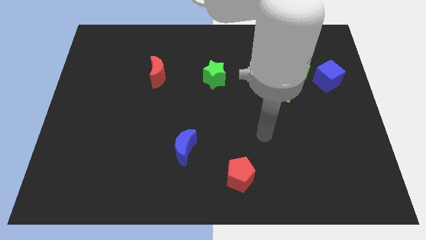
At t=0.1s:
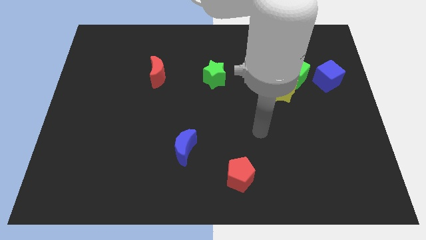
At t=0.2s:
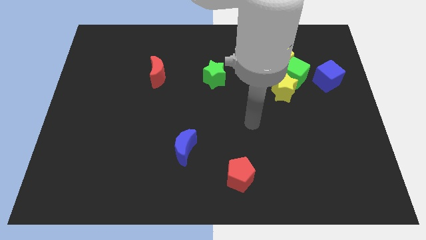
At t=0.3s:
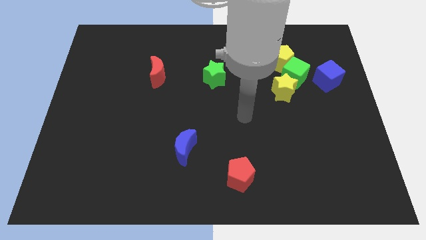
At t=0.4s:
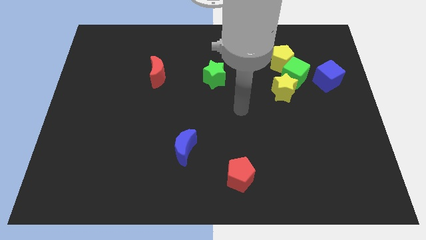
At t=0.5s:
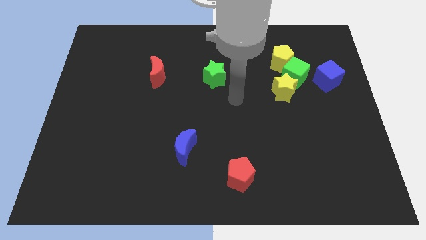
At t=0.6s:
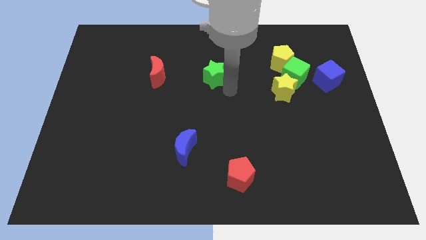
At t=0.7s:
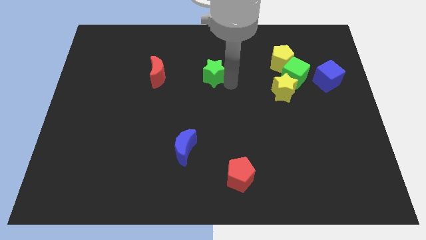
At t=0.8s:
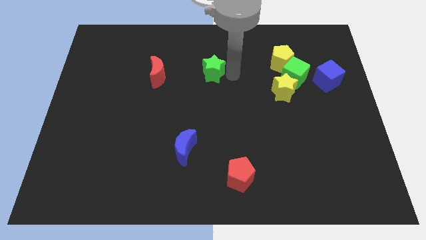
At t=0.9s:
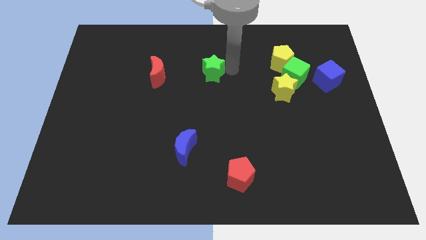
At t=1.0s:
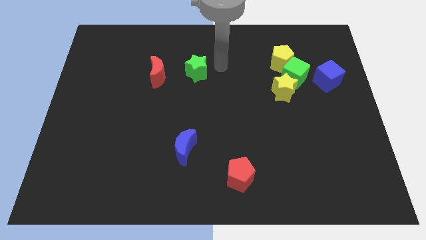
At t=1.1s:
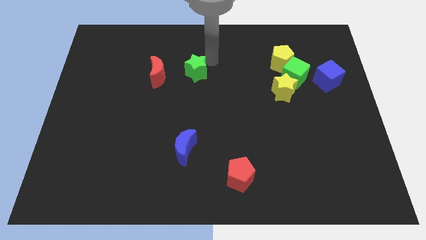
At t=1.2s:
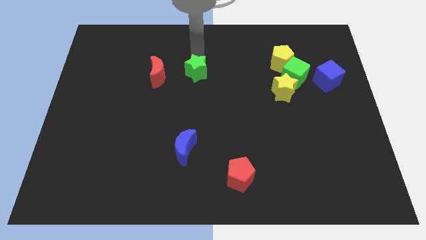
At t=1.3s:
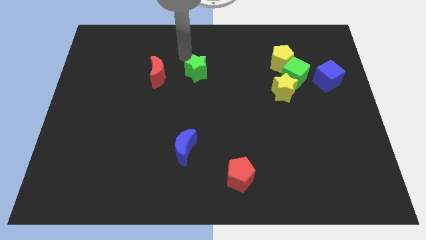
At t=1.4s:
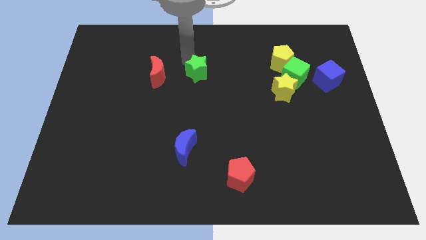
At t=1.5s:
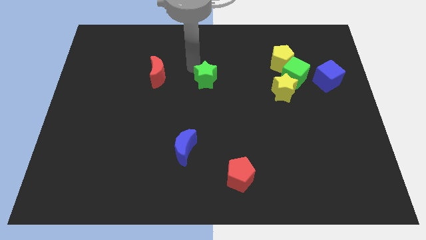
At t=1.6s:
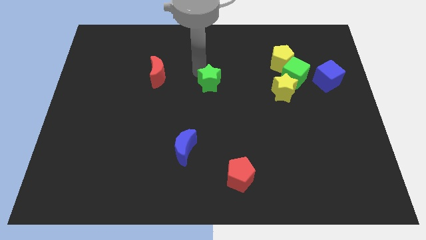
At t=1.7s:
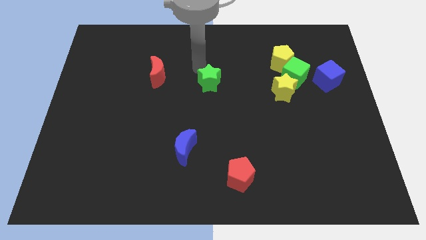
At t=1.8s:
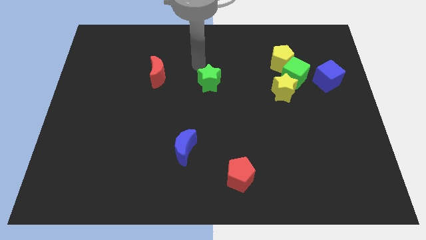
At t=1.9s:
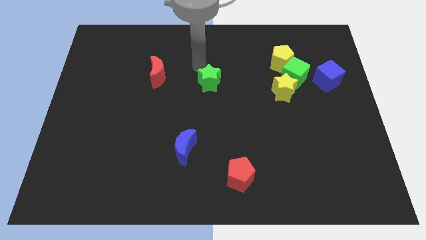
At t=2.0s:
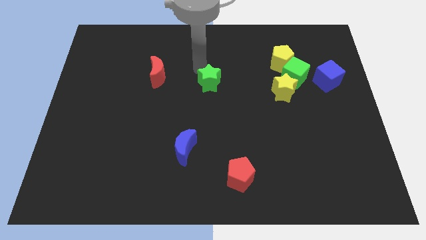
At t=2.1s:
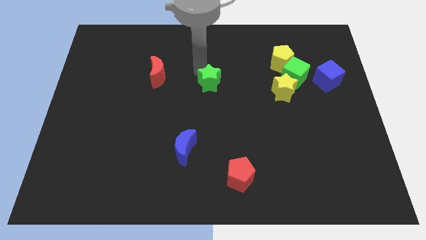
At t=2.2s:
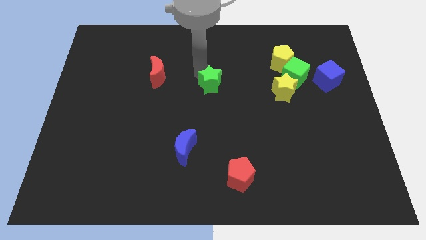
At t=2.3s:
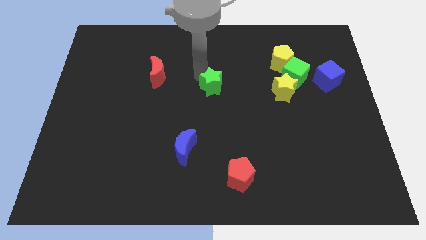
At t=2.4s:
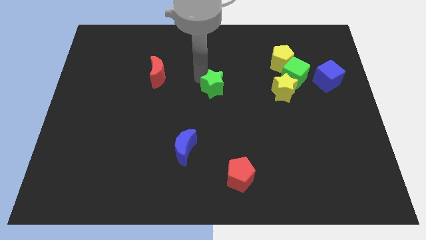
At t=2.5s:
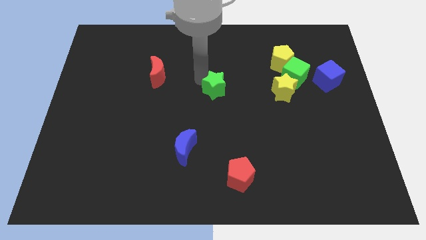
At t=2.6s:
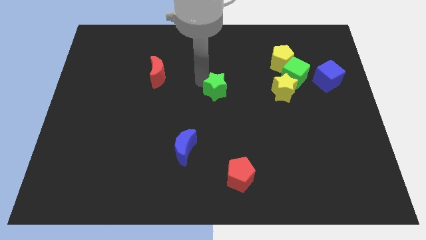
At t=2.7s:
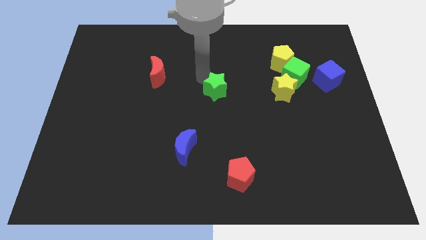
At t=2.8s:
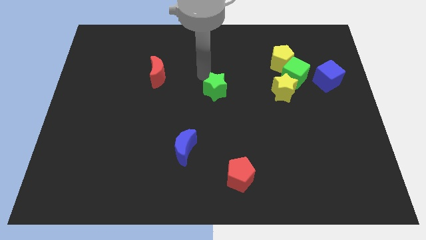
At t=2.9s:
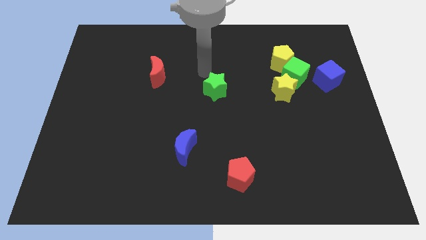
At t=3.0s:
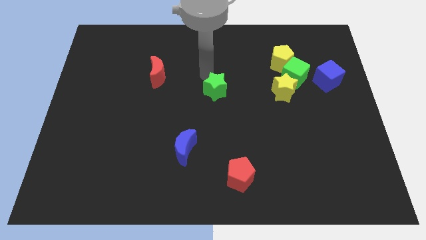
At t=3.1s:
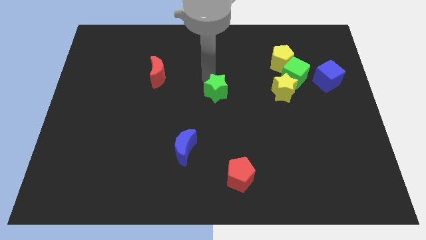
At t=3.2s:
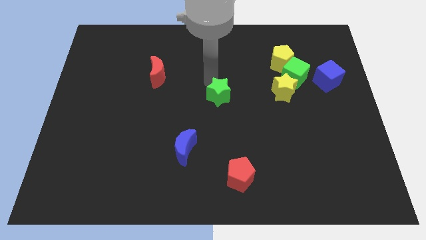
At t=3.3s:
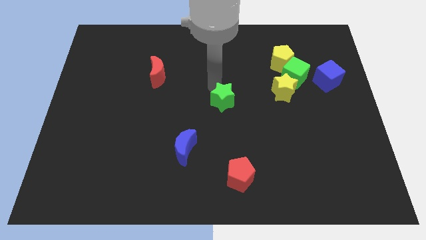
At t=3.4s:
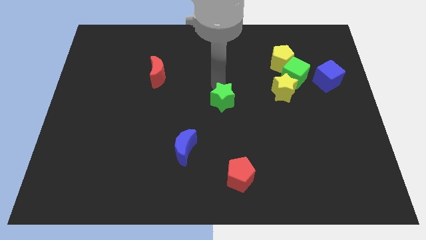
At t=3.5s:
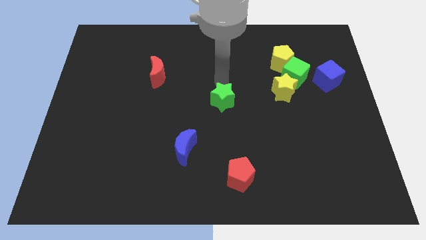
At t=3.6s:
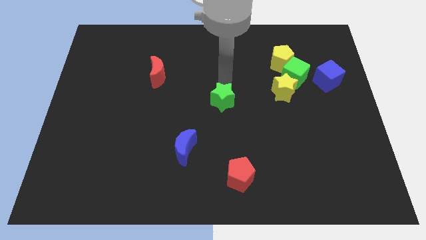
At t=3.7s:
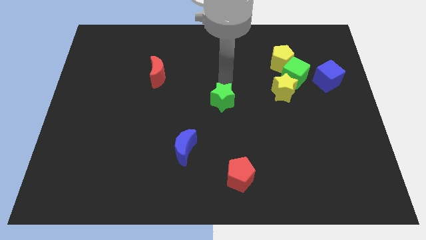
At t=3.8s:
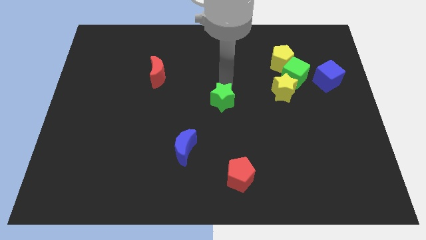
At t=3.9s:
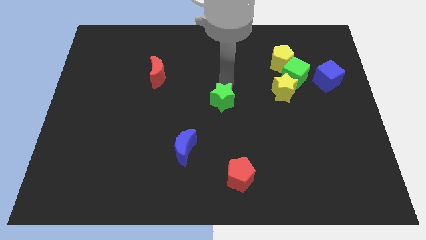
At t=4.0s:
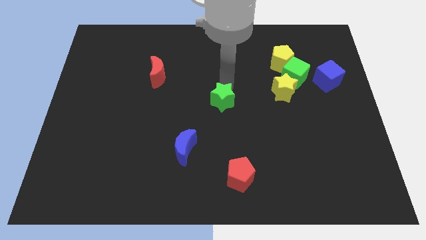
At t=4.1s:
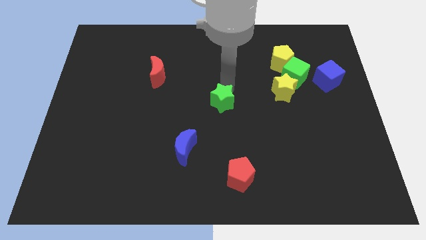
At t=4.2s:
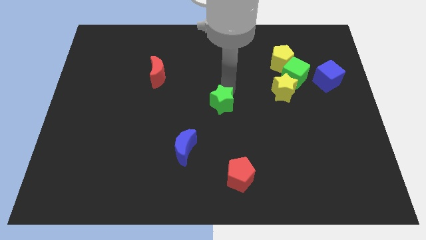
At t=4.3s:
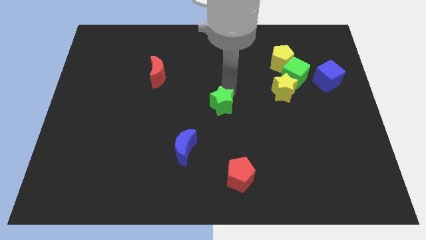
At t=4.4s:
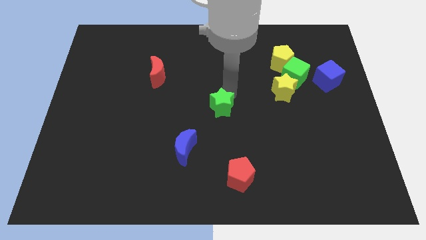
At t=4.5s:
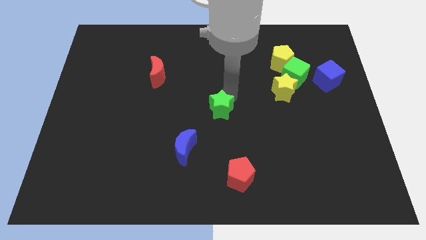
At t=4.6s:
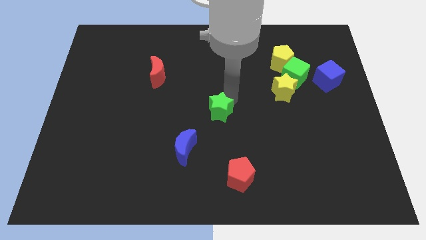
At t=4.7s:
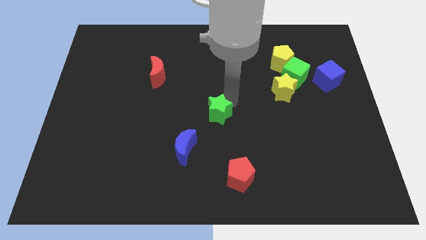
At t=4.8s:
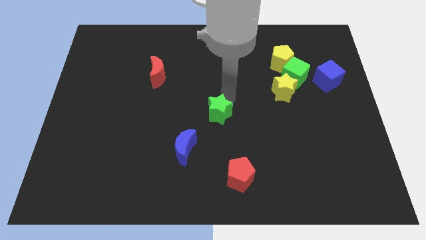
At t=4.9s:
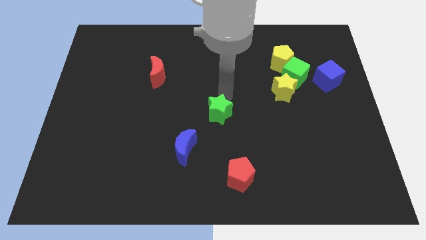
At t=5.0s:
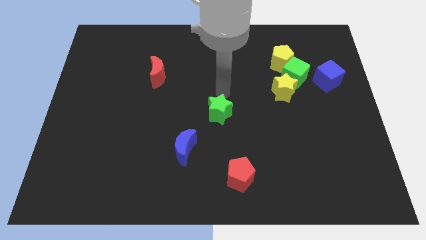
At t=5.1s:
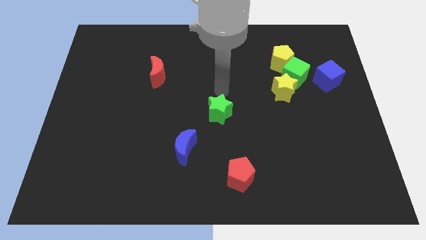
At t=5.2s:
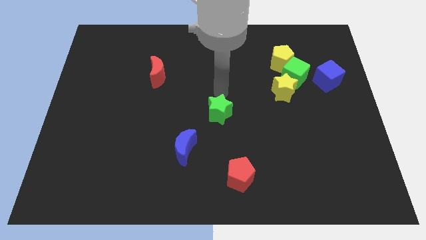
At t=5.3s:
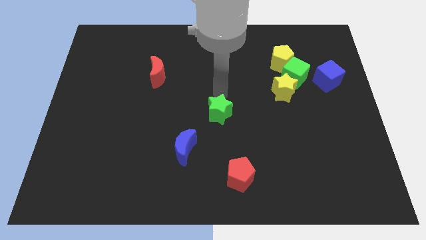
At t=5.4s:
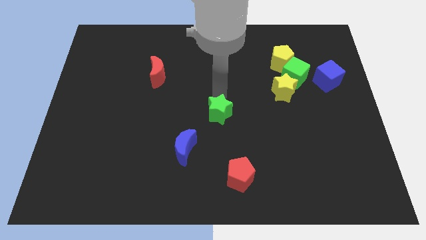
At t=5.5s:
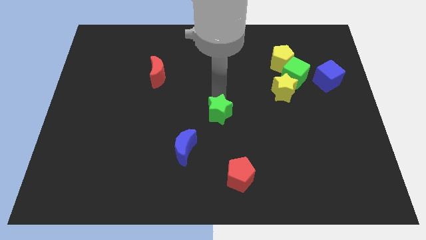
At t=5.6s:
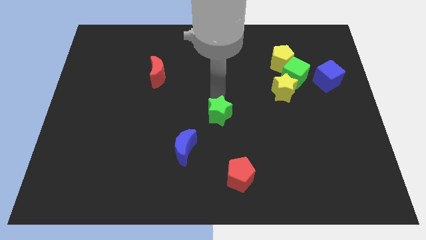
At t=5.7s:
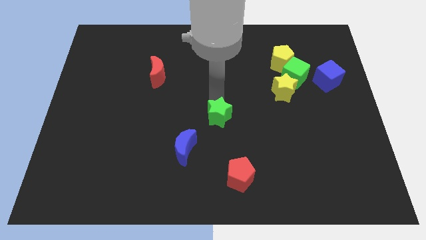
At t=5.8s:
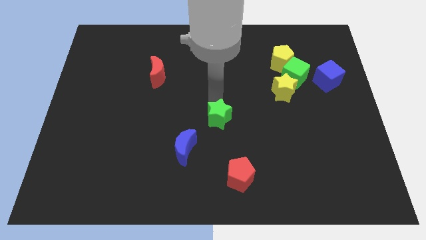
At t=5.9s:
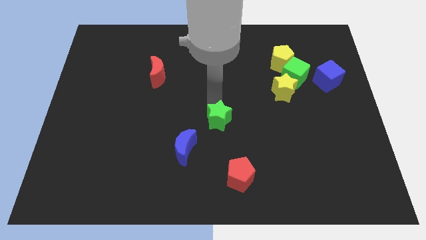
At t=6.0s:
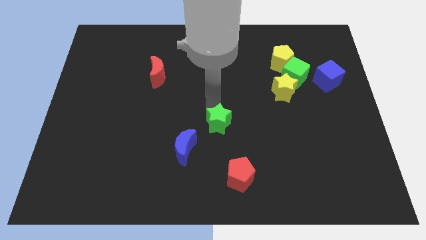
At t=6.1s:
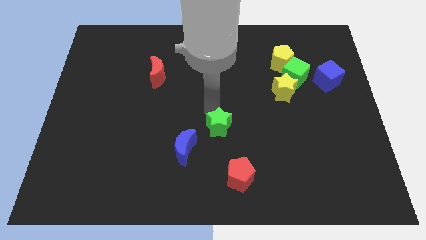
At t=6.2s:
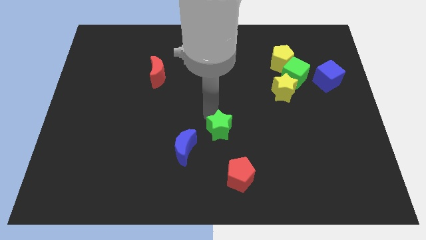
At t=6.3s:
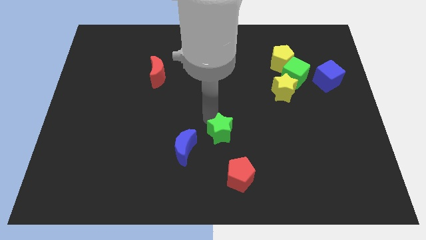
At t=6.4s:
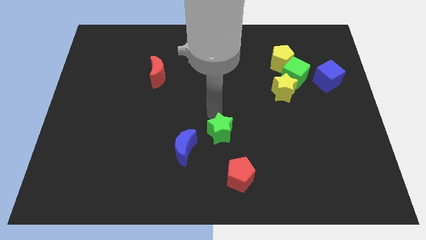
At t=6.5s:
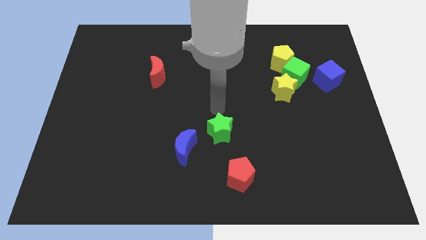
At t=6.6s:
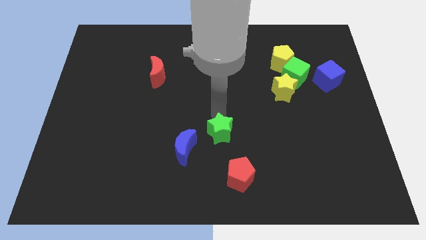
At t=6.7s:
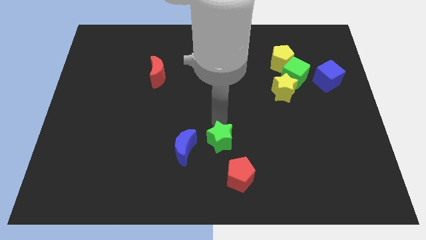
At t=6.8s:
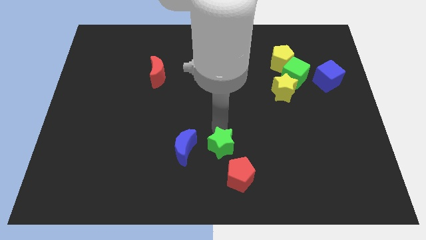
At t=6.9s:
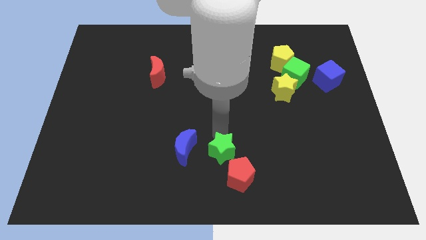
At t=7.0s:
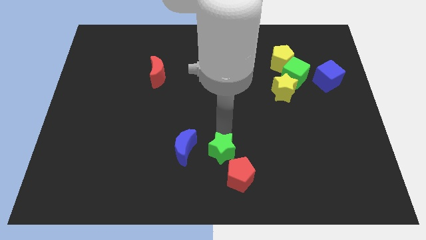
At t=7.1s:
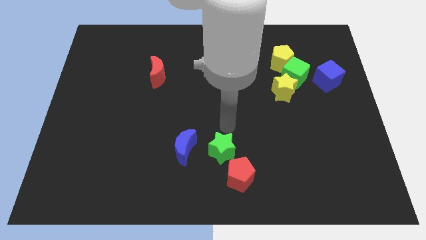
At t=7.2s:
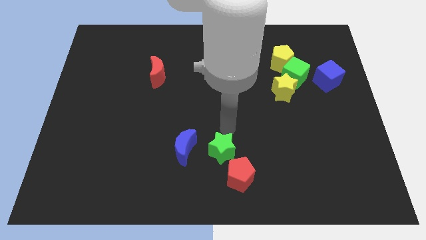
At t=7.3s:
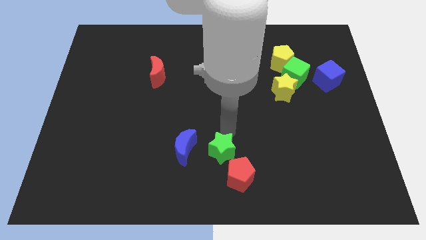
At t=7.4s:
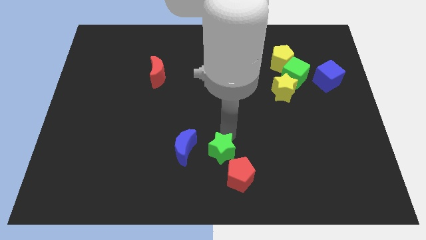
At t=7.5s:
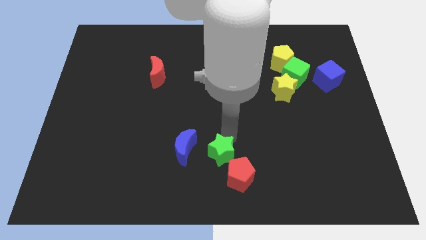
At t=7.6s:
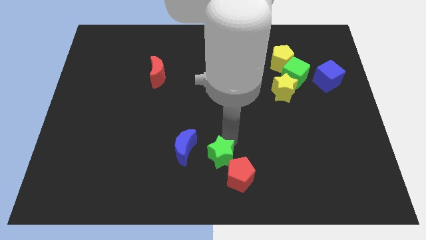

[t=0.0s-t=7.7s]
slide the green star to the bottom side
